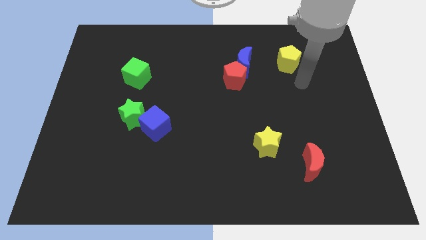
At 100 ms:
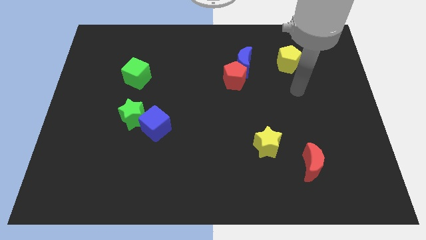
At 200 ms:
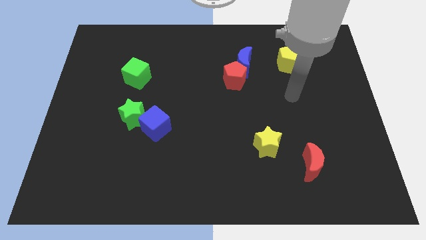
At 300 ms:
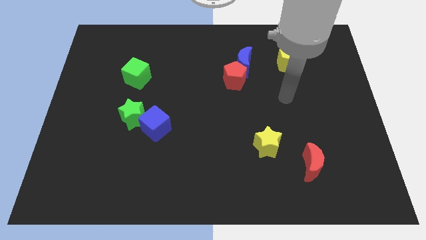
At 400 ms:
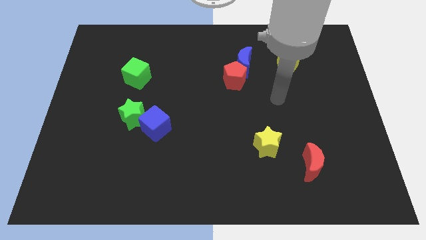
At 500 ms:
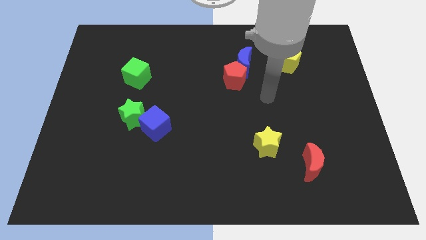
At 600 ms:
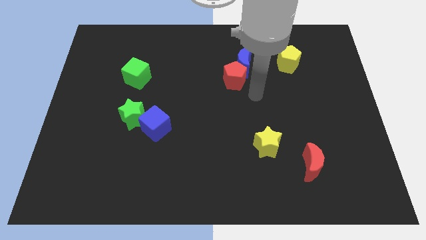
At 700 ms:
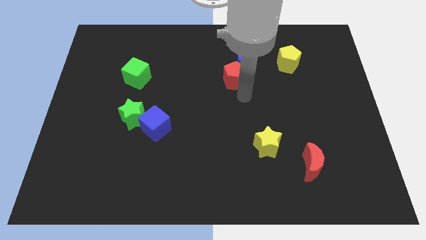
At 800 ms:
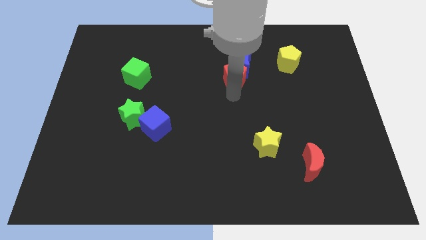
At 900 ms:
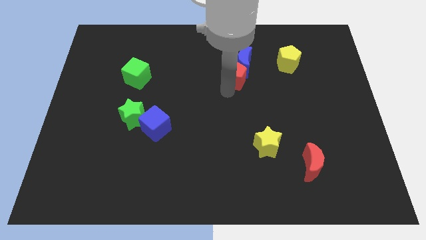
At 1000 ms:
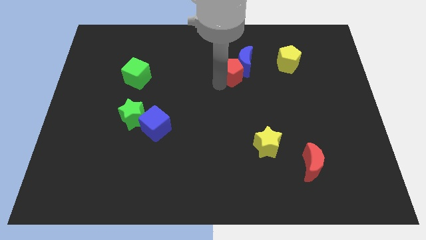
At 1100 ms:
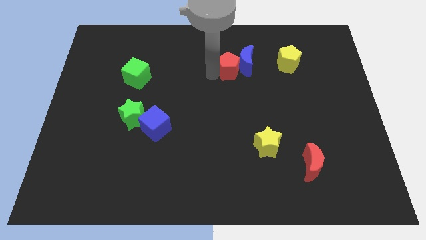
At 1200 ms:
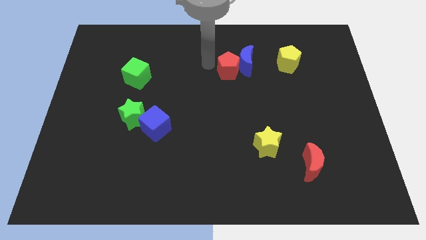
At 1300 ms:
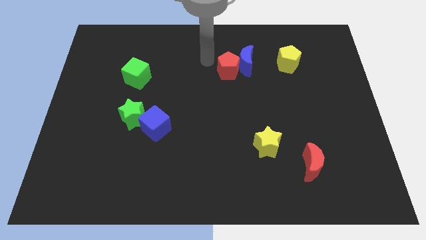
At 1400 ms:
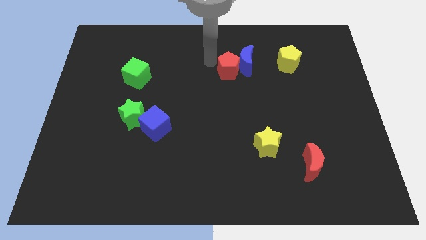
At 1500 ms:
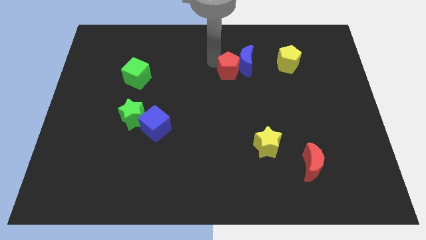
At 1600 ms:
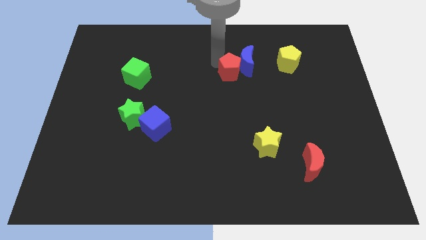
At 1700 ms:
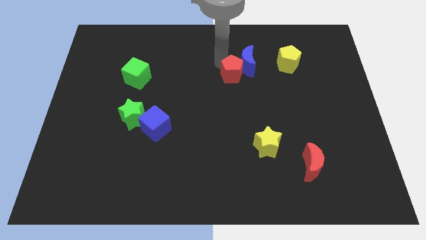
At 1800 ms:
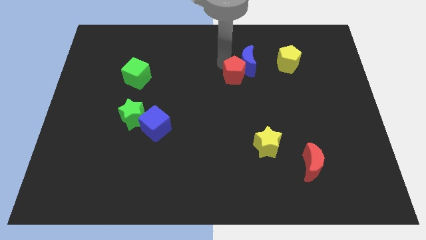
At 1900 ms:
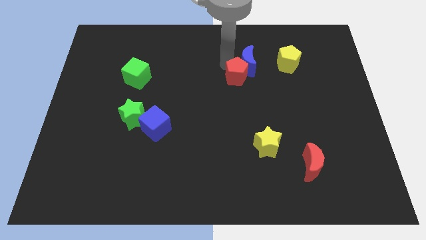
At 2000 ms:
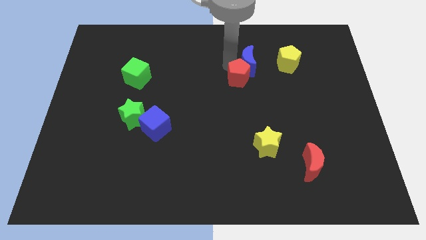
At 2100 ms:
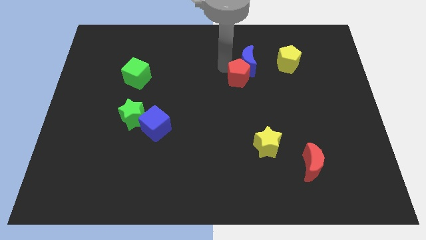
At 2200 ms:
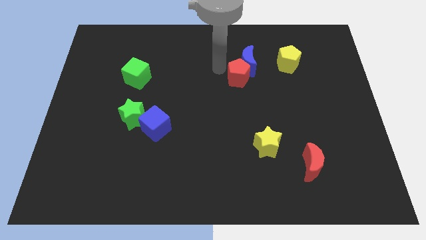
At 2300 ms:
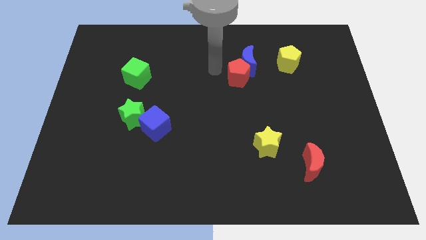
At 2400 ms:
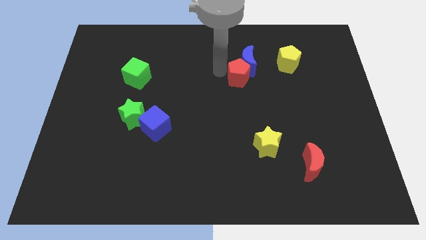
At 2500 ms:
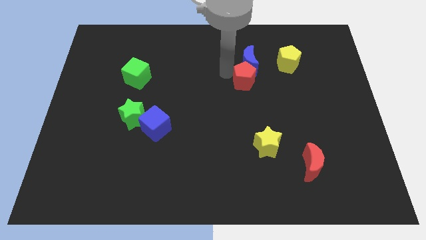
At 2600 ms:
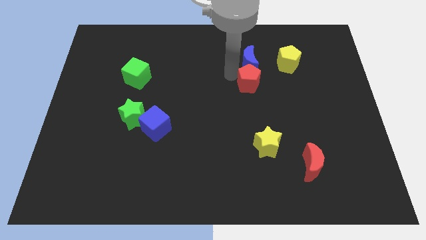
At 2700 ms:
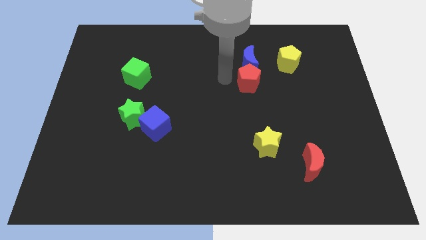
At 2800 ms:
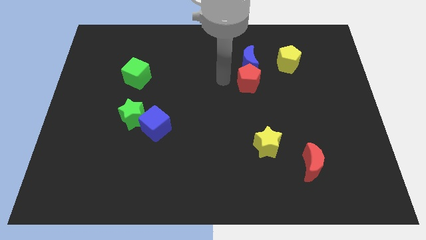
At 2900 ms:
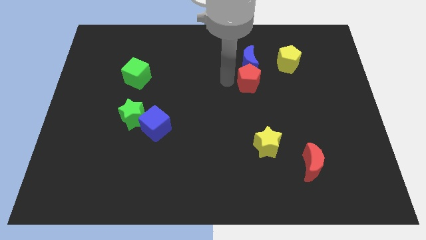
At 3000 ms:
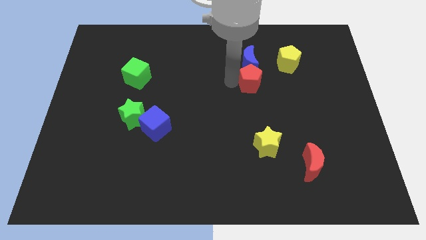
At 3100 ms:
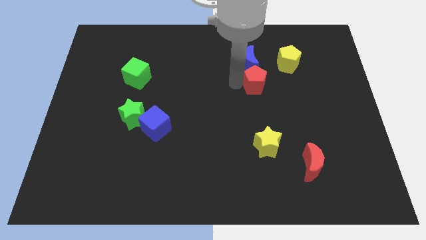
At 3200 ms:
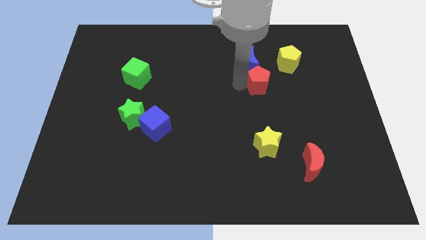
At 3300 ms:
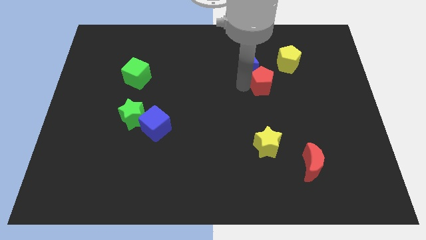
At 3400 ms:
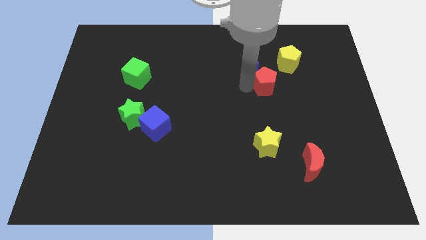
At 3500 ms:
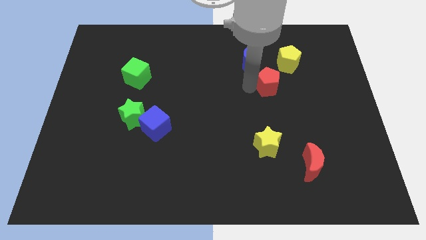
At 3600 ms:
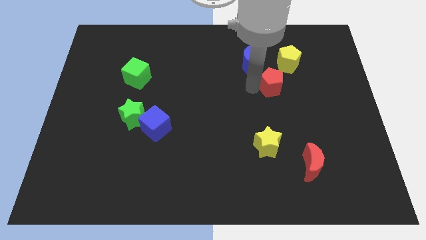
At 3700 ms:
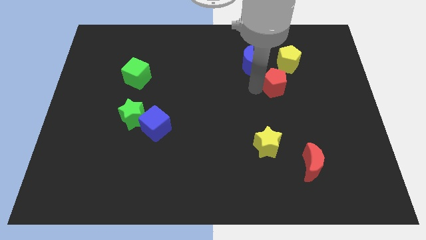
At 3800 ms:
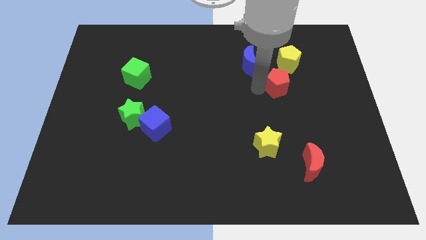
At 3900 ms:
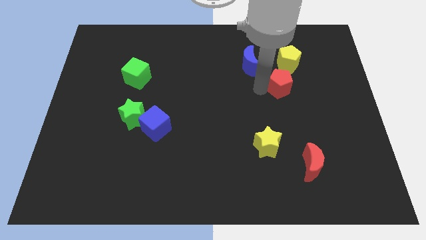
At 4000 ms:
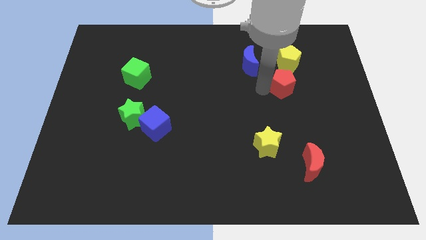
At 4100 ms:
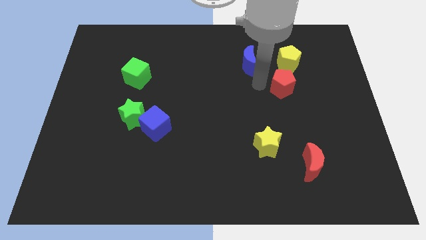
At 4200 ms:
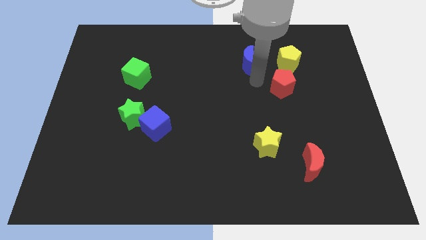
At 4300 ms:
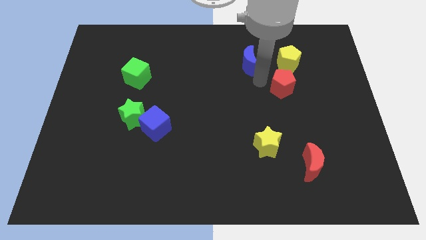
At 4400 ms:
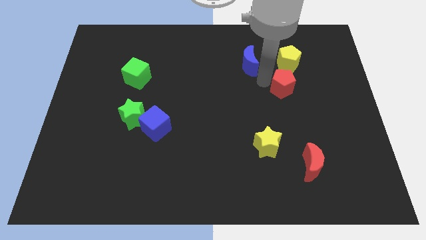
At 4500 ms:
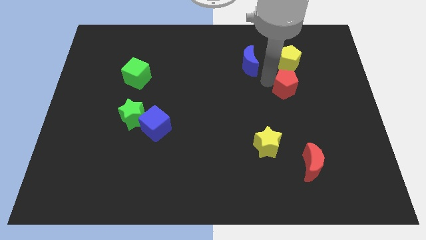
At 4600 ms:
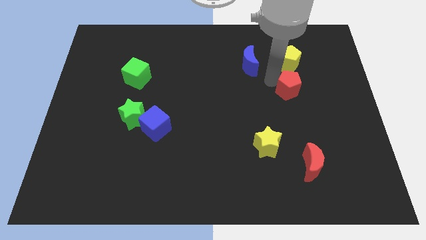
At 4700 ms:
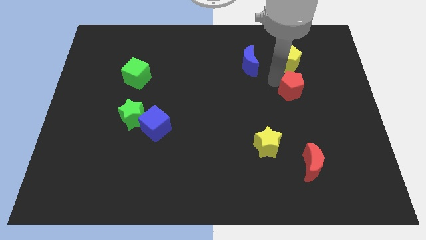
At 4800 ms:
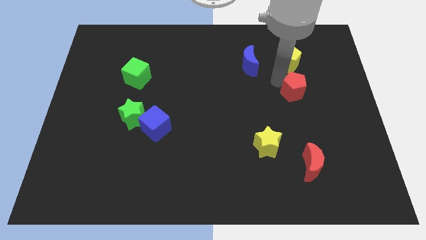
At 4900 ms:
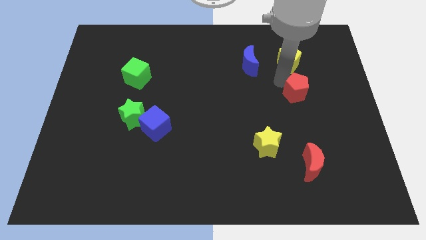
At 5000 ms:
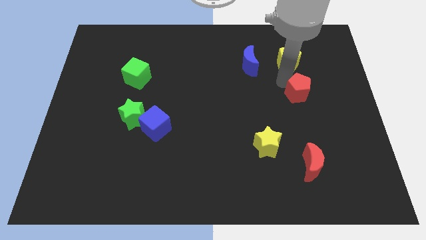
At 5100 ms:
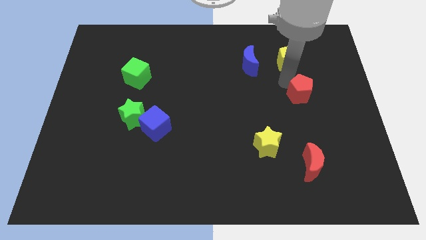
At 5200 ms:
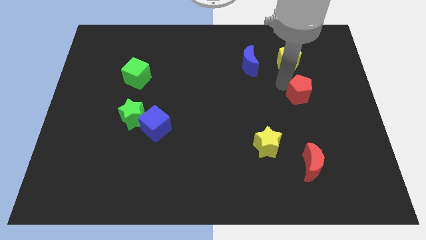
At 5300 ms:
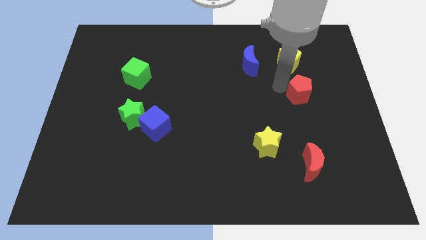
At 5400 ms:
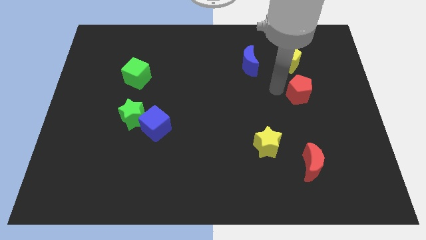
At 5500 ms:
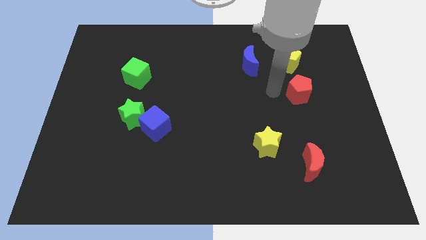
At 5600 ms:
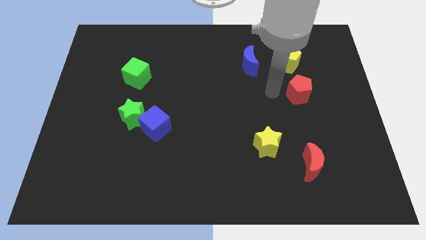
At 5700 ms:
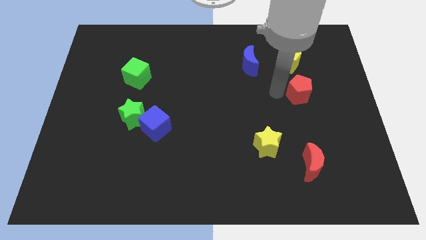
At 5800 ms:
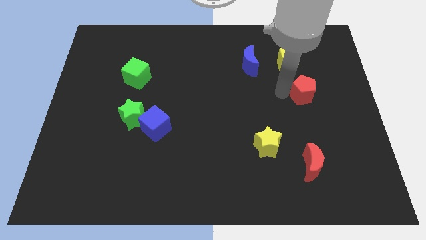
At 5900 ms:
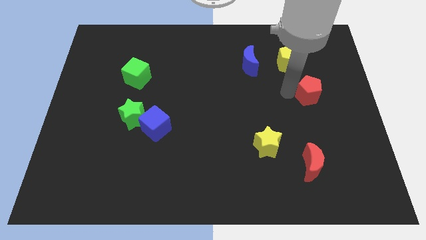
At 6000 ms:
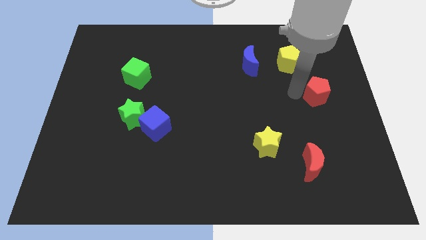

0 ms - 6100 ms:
push the red pentagon to the right side

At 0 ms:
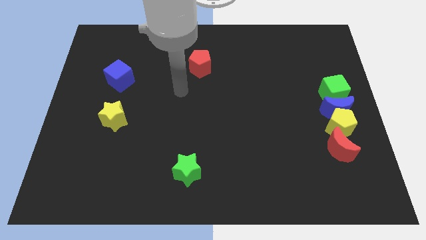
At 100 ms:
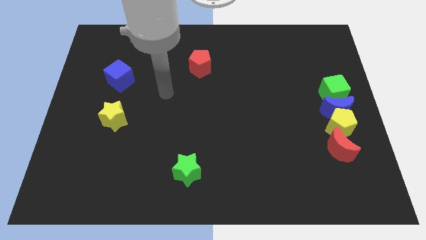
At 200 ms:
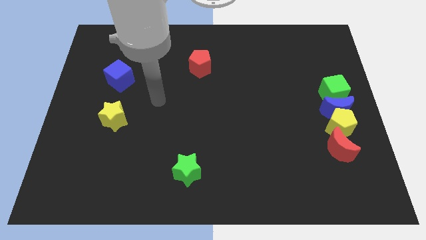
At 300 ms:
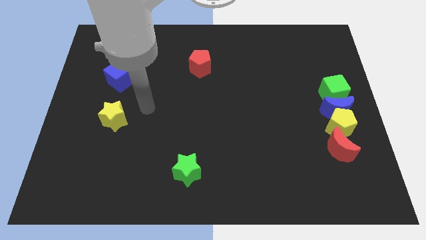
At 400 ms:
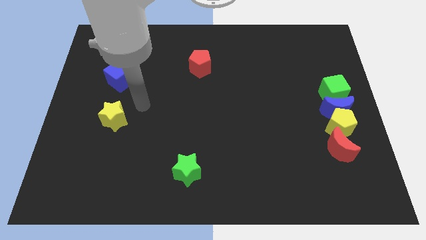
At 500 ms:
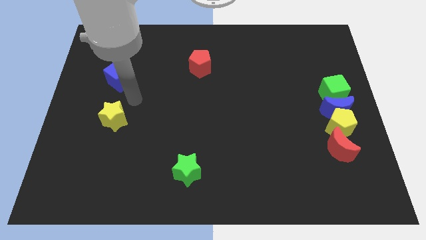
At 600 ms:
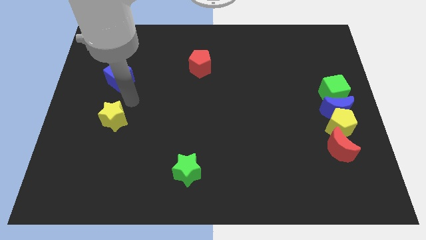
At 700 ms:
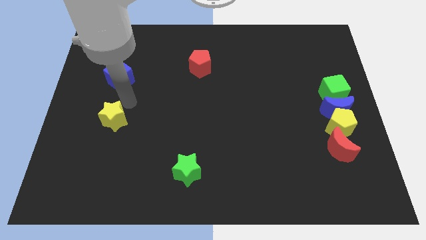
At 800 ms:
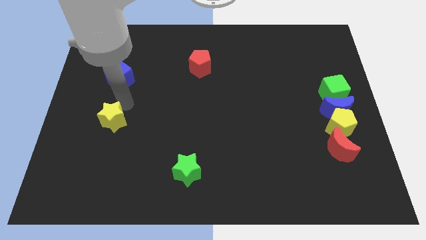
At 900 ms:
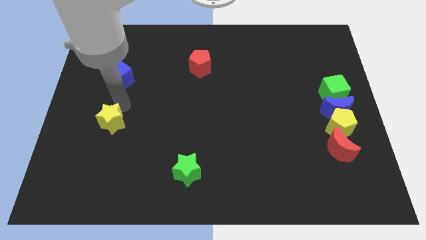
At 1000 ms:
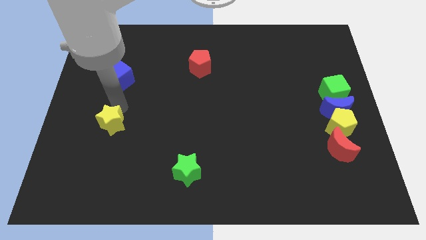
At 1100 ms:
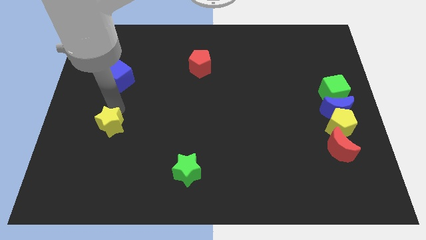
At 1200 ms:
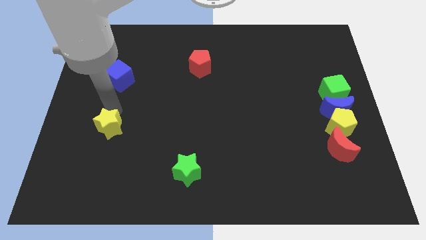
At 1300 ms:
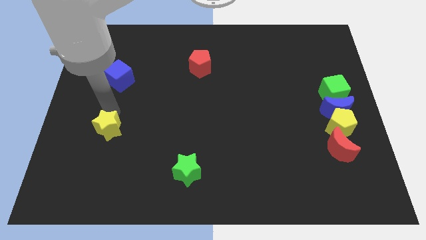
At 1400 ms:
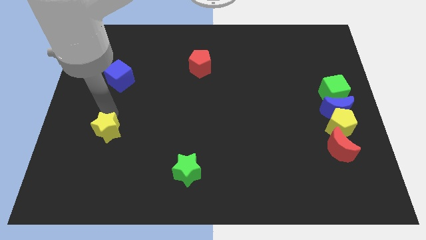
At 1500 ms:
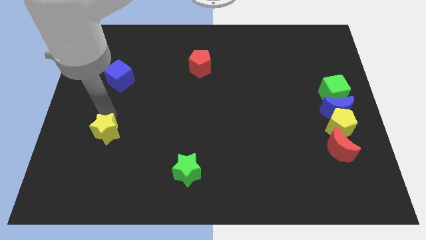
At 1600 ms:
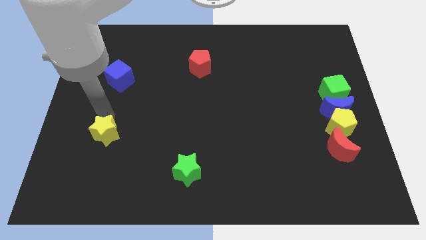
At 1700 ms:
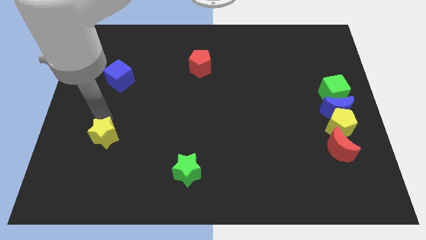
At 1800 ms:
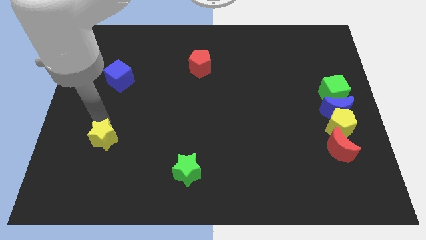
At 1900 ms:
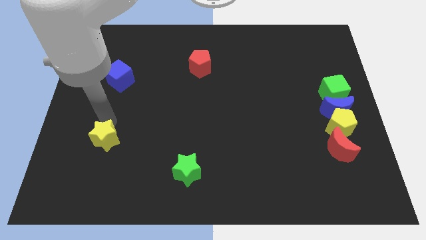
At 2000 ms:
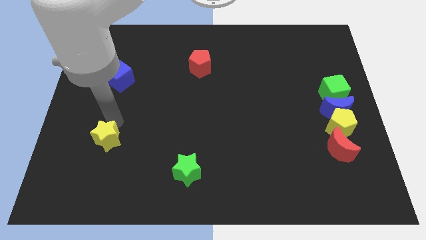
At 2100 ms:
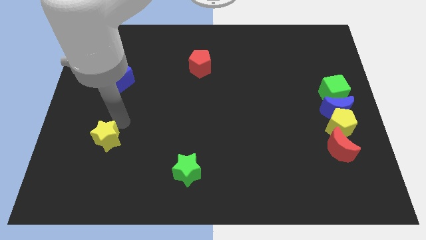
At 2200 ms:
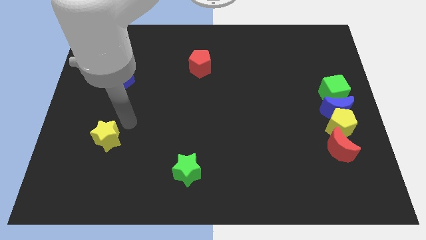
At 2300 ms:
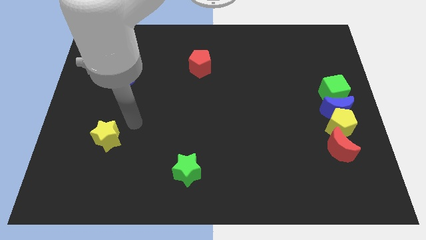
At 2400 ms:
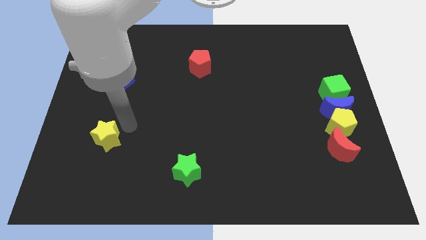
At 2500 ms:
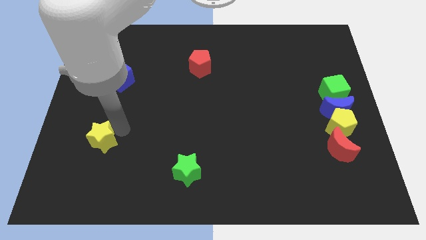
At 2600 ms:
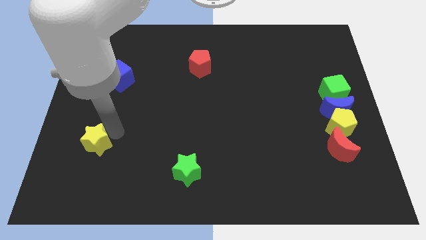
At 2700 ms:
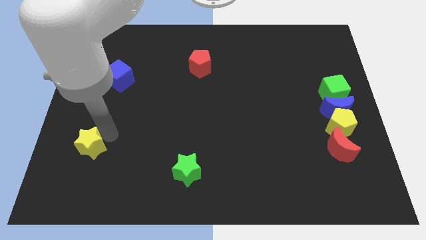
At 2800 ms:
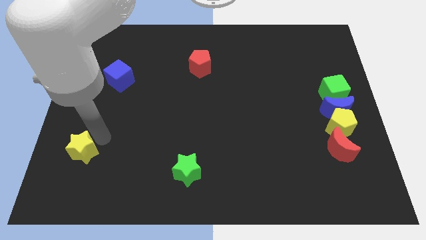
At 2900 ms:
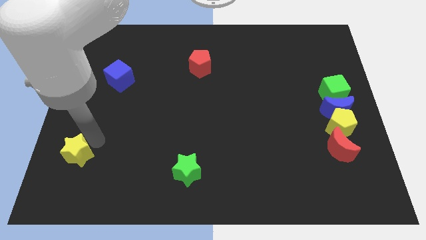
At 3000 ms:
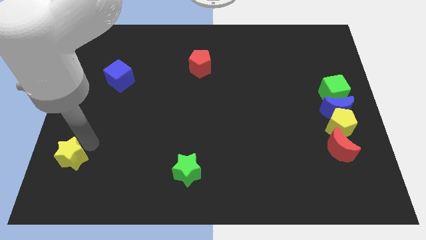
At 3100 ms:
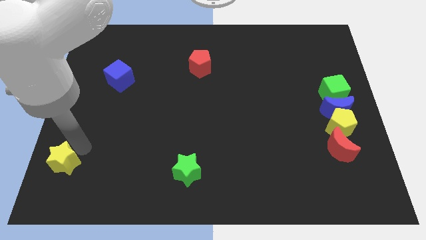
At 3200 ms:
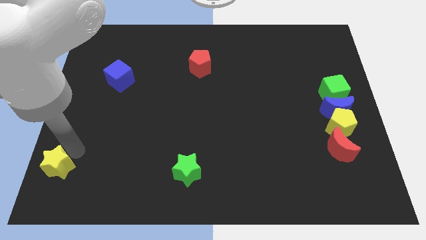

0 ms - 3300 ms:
put the yellow star to the lower left corner
